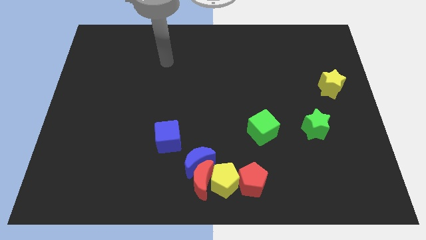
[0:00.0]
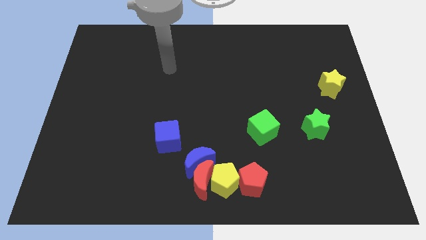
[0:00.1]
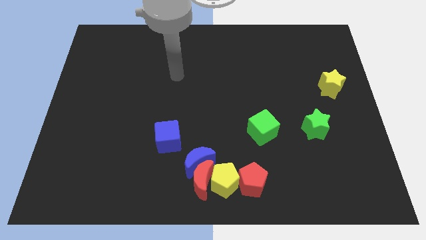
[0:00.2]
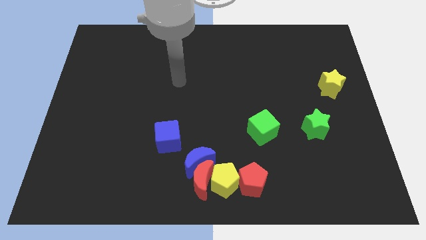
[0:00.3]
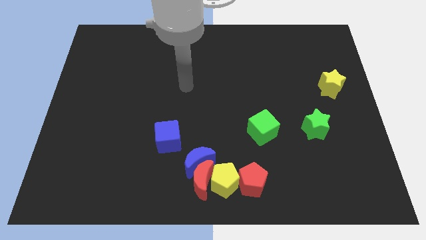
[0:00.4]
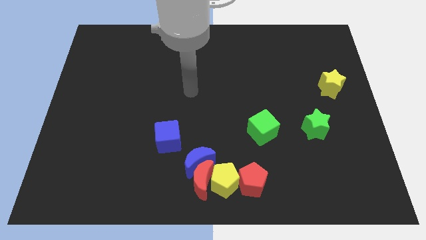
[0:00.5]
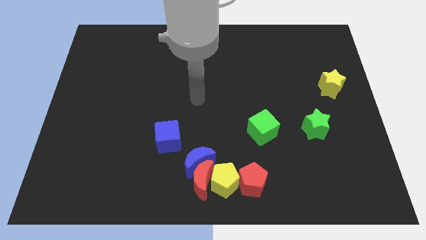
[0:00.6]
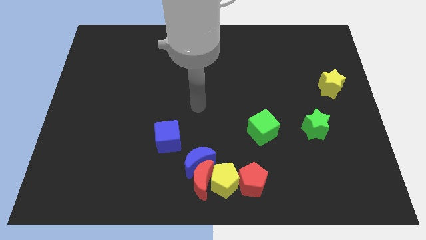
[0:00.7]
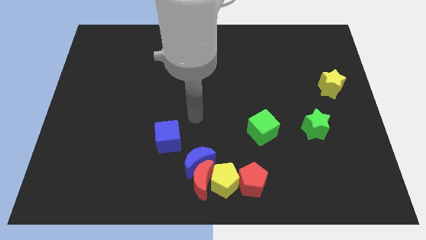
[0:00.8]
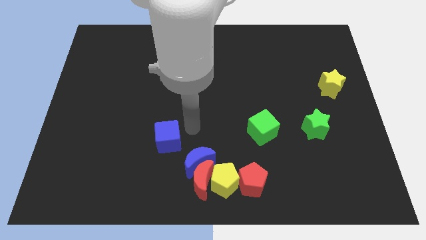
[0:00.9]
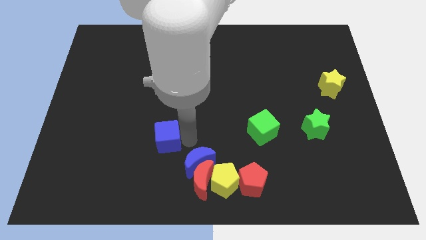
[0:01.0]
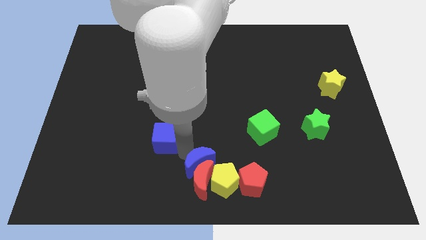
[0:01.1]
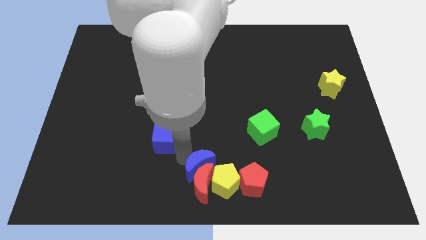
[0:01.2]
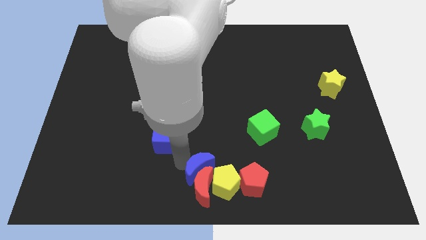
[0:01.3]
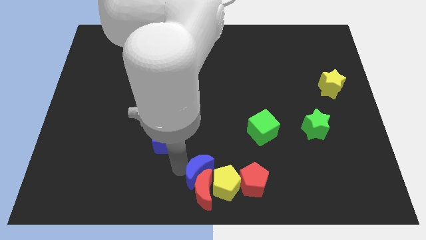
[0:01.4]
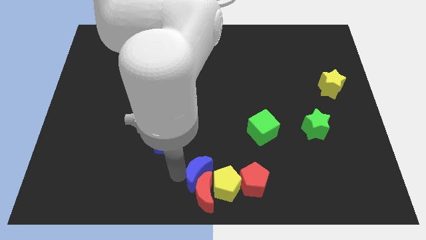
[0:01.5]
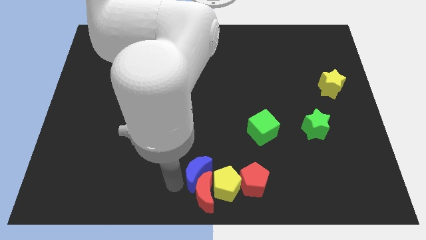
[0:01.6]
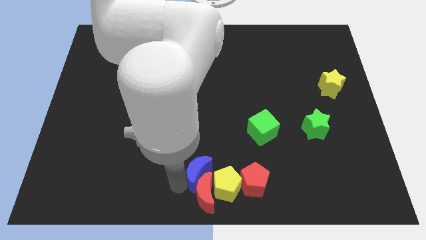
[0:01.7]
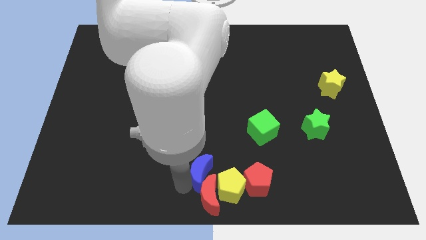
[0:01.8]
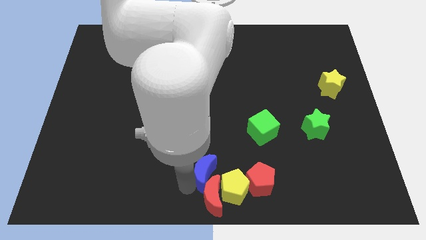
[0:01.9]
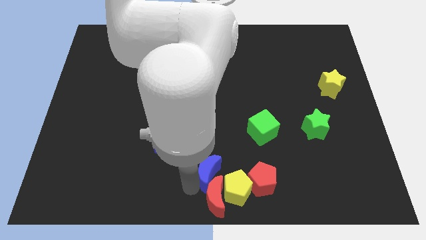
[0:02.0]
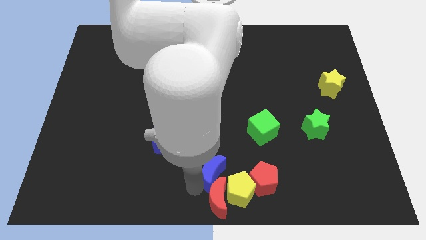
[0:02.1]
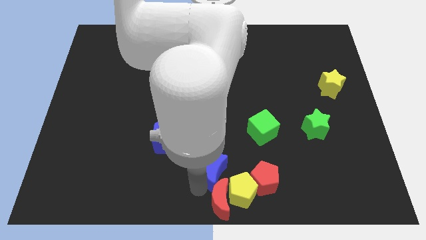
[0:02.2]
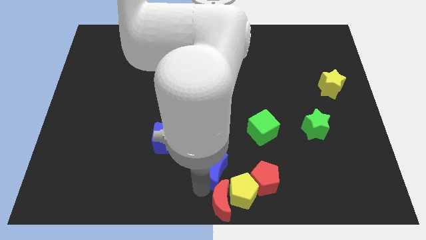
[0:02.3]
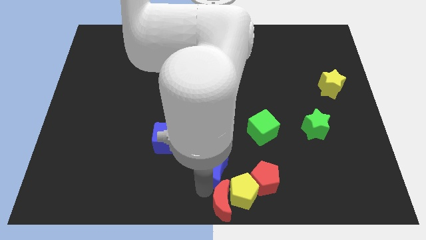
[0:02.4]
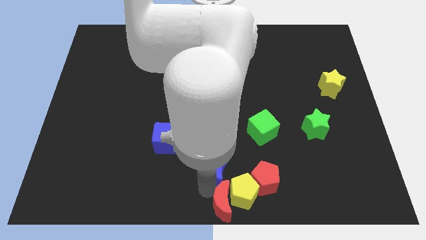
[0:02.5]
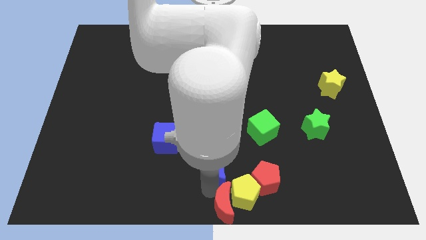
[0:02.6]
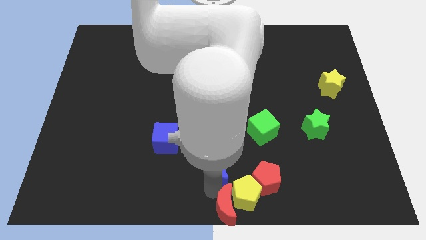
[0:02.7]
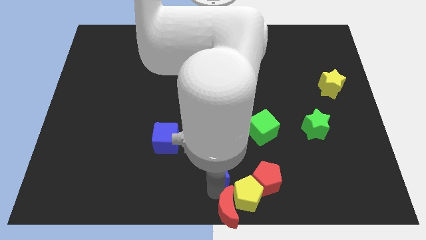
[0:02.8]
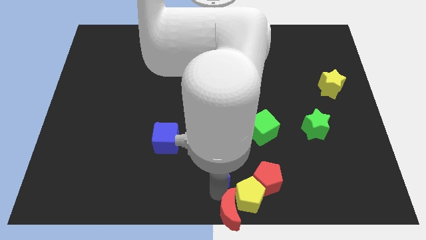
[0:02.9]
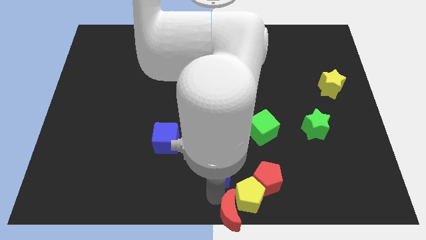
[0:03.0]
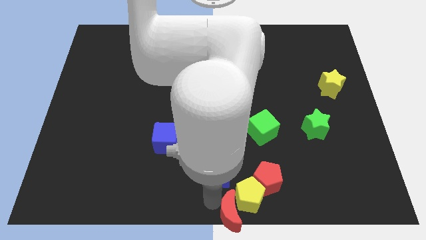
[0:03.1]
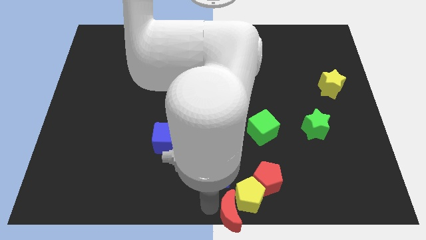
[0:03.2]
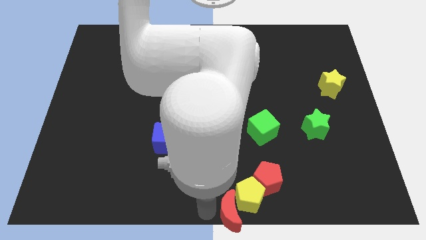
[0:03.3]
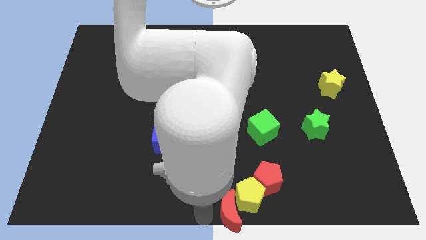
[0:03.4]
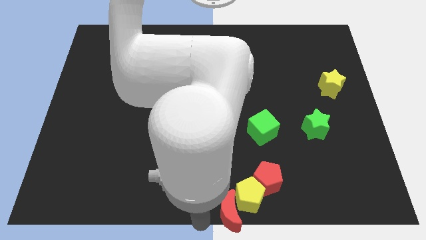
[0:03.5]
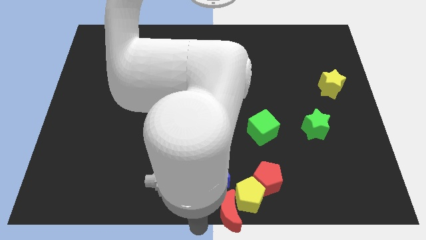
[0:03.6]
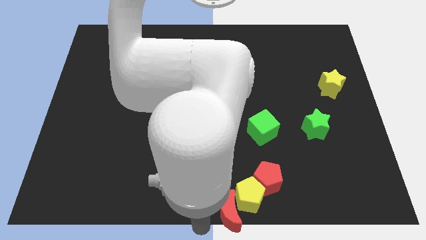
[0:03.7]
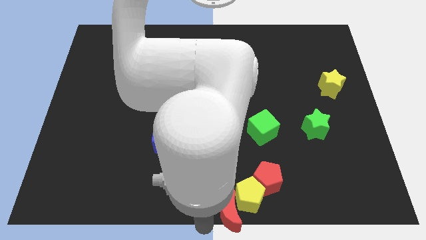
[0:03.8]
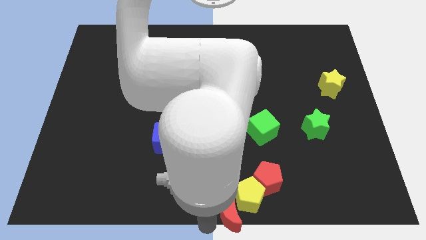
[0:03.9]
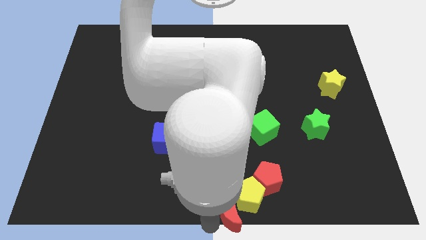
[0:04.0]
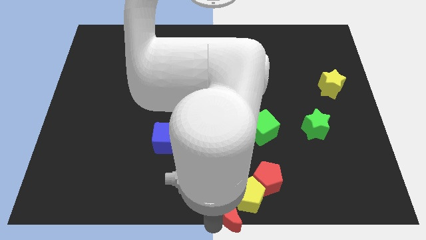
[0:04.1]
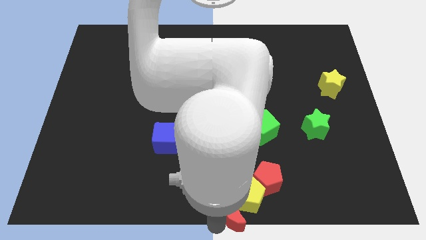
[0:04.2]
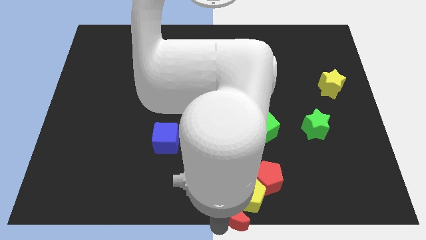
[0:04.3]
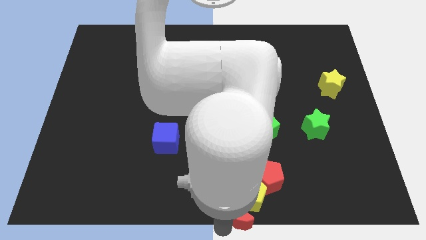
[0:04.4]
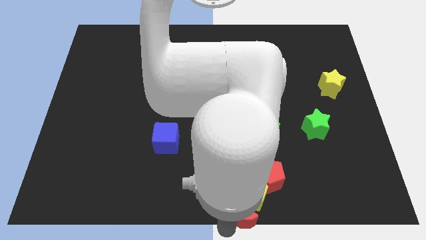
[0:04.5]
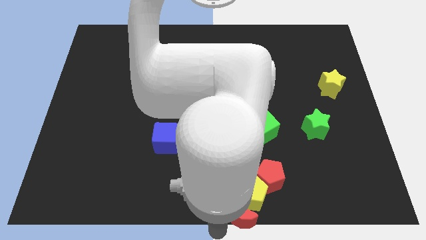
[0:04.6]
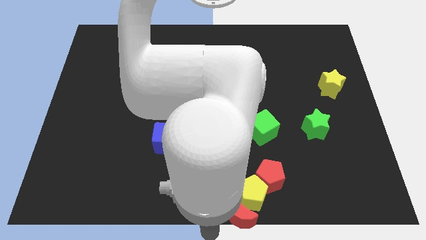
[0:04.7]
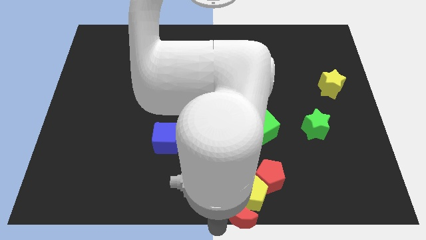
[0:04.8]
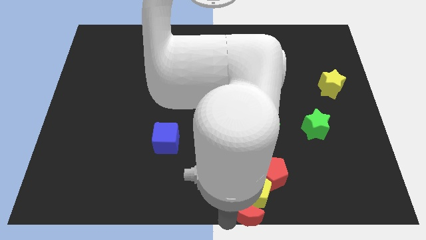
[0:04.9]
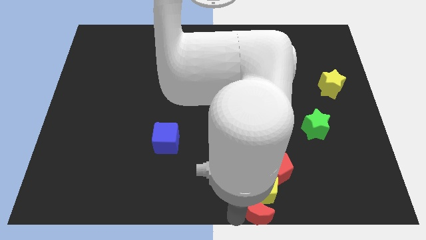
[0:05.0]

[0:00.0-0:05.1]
slightly move the red moon right

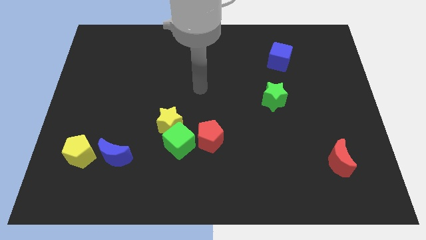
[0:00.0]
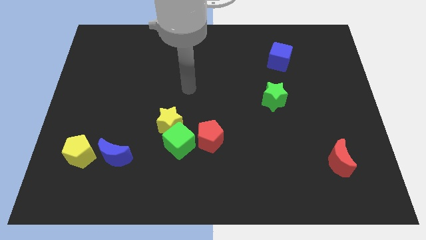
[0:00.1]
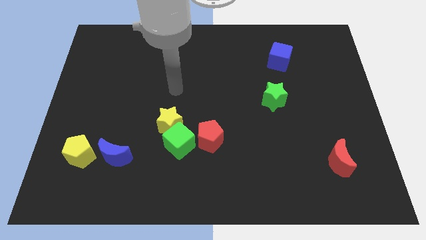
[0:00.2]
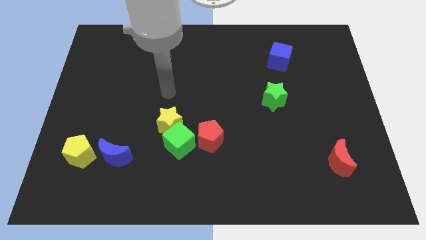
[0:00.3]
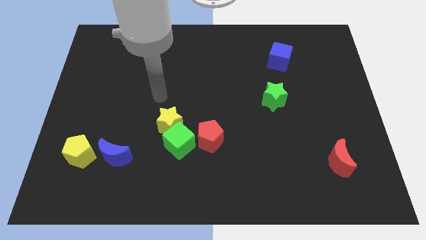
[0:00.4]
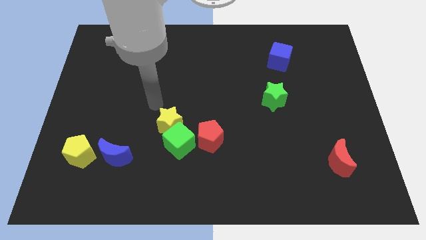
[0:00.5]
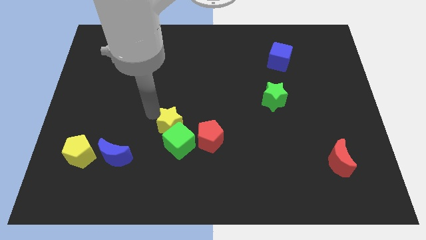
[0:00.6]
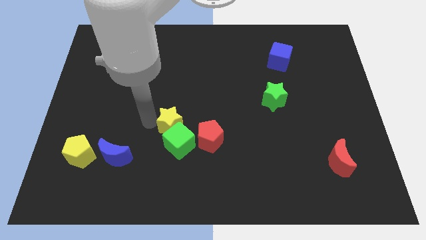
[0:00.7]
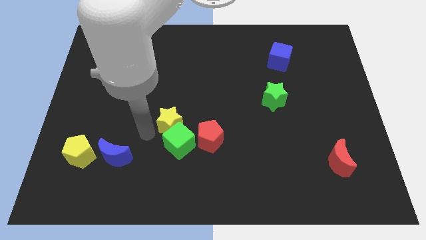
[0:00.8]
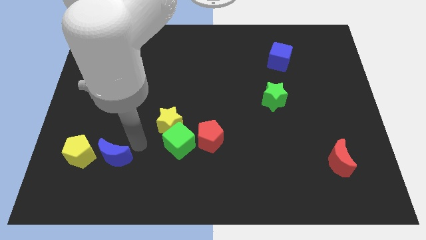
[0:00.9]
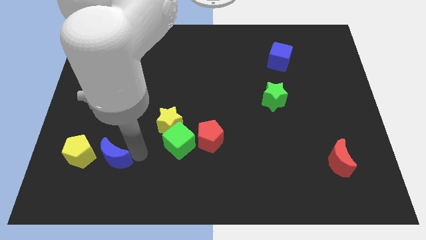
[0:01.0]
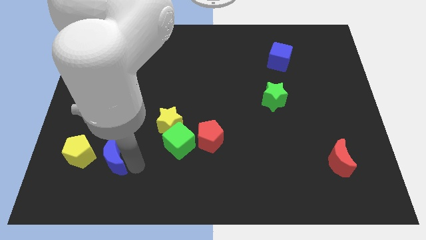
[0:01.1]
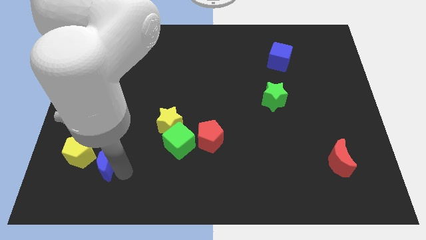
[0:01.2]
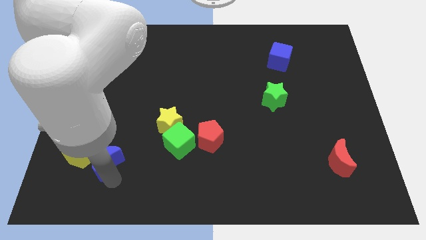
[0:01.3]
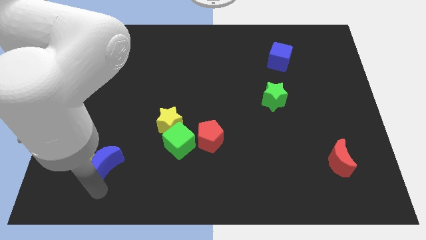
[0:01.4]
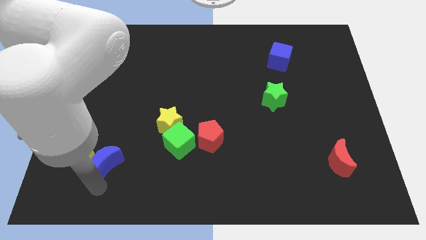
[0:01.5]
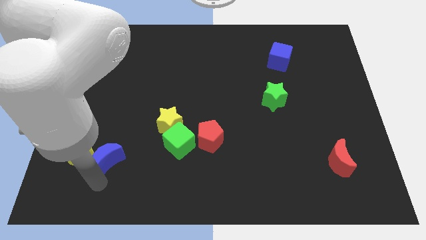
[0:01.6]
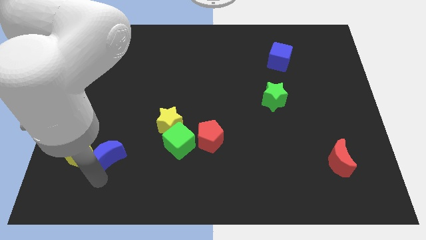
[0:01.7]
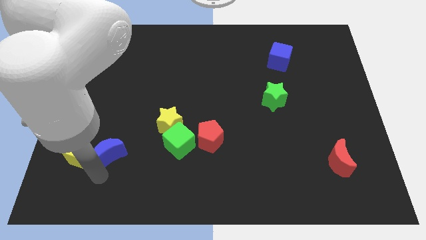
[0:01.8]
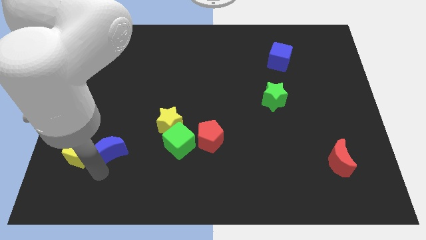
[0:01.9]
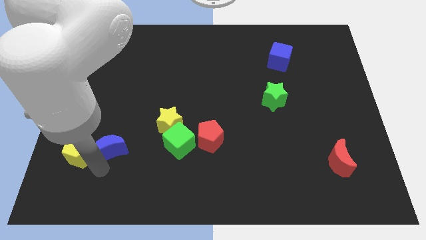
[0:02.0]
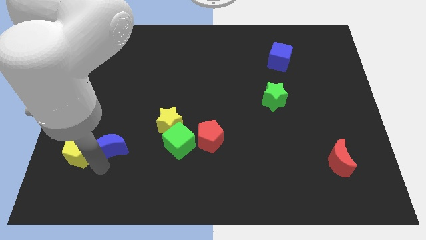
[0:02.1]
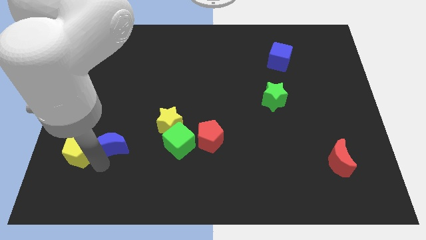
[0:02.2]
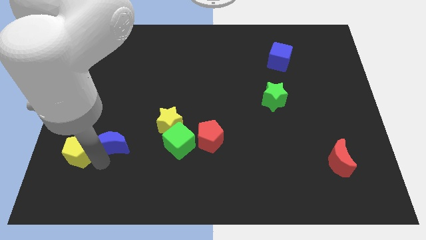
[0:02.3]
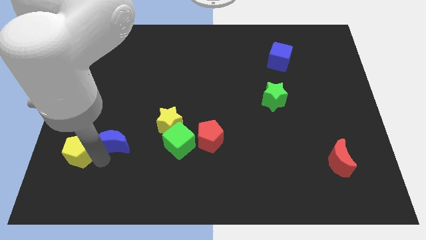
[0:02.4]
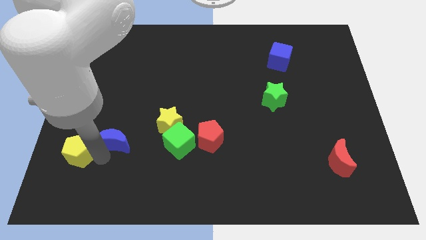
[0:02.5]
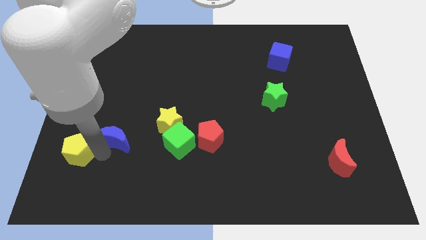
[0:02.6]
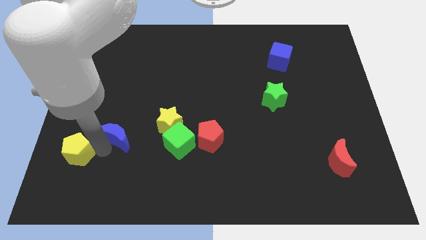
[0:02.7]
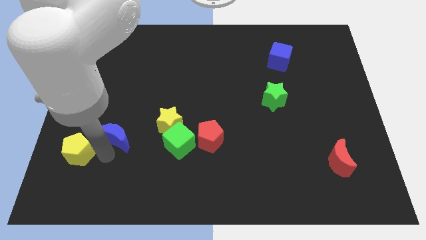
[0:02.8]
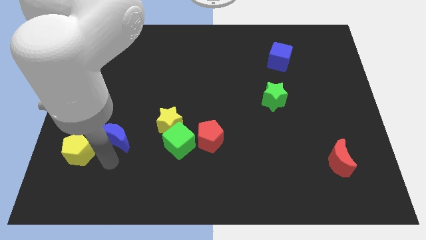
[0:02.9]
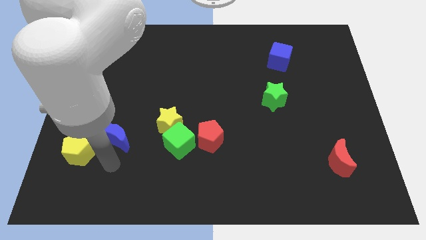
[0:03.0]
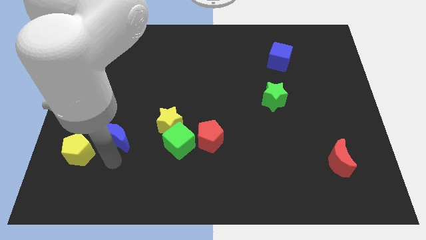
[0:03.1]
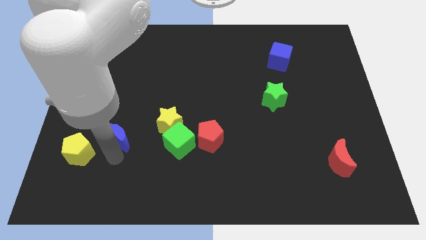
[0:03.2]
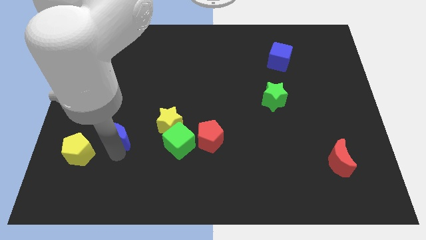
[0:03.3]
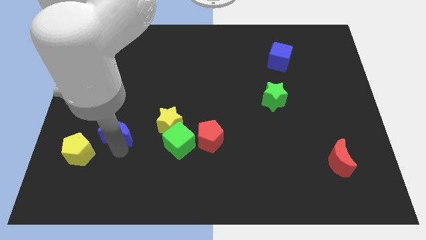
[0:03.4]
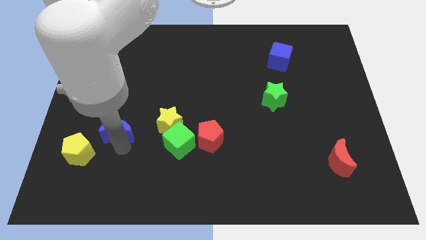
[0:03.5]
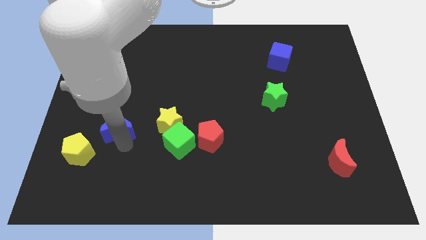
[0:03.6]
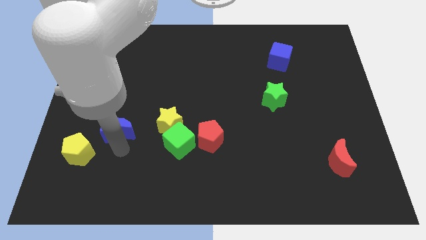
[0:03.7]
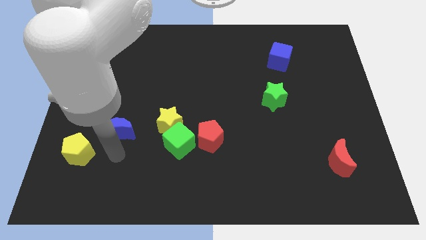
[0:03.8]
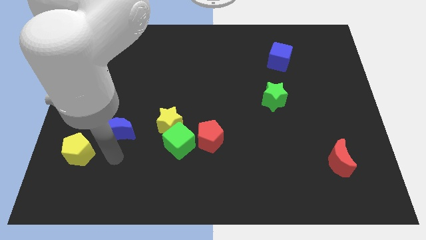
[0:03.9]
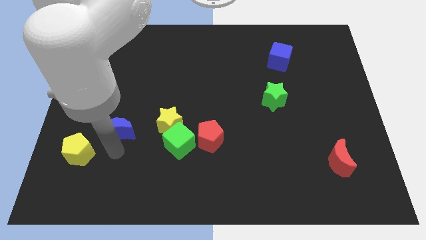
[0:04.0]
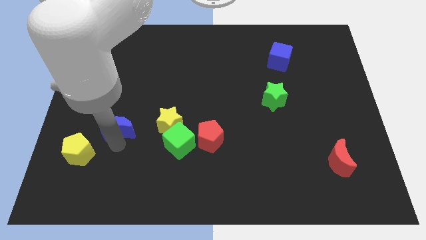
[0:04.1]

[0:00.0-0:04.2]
push the blue moon somewhat up
